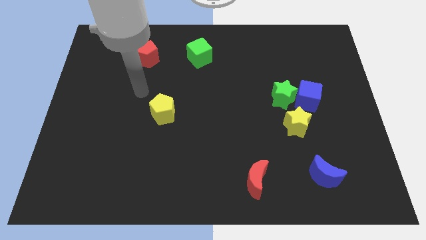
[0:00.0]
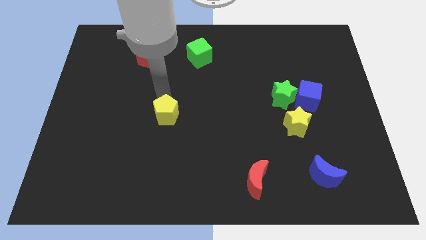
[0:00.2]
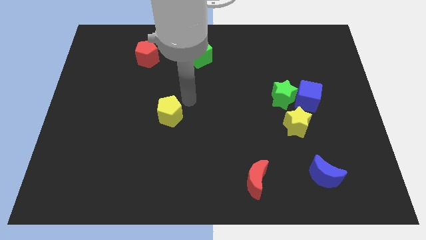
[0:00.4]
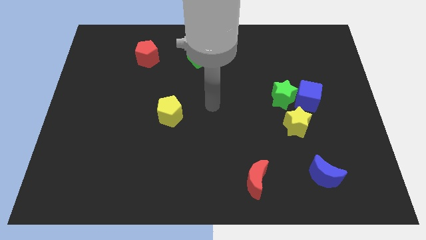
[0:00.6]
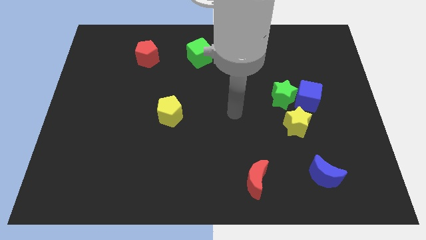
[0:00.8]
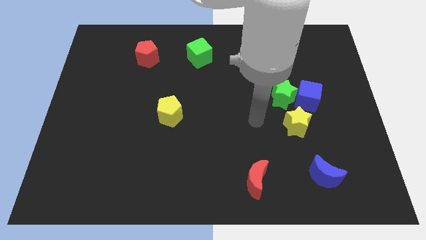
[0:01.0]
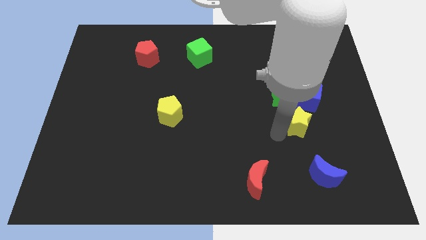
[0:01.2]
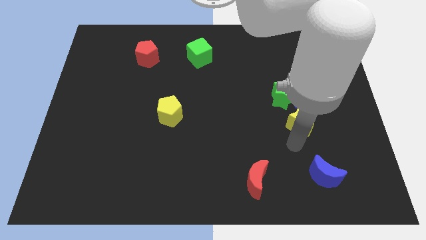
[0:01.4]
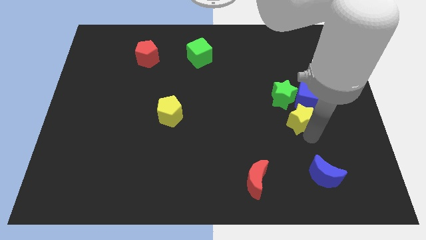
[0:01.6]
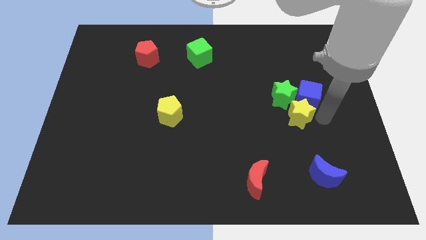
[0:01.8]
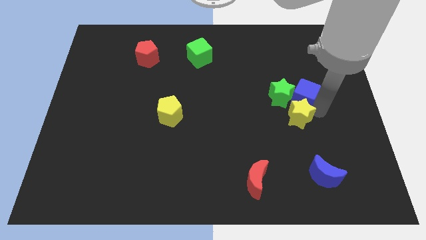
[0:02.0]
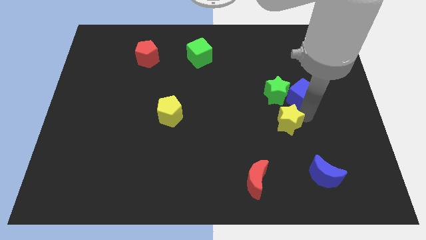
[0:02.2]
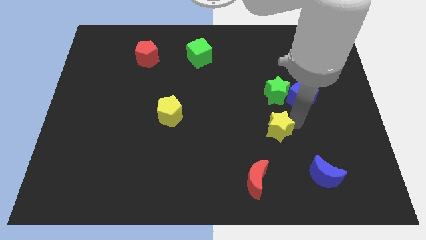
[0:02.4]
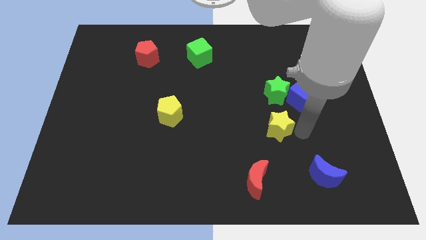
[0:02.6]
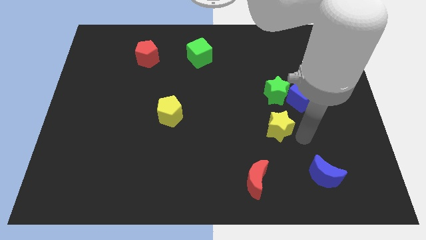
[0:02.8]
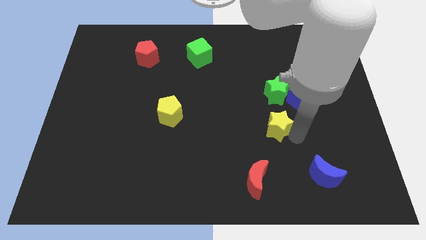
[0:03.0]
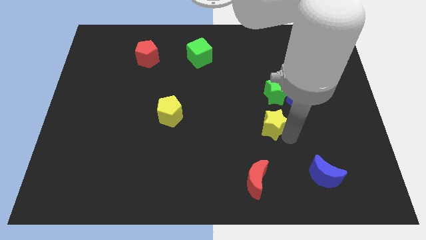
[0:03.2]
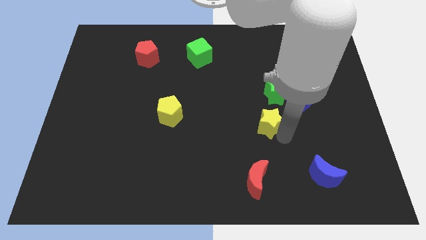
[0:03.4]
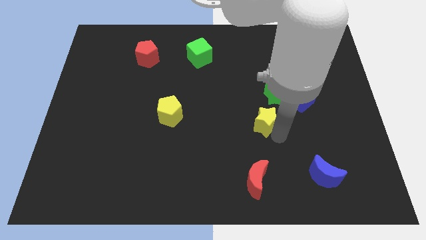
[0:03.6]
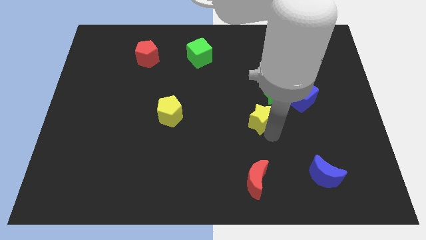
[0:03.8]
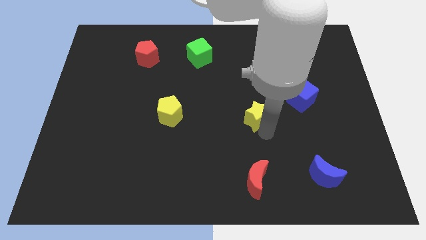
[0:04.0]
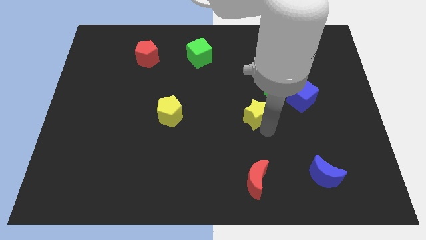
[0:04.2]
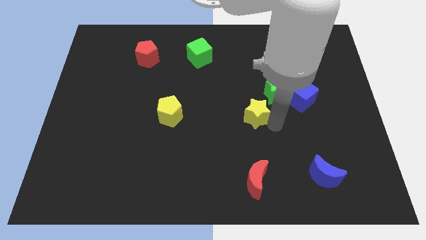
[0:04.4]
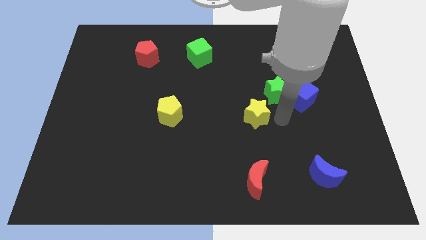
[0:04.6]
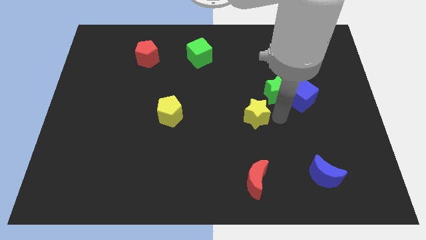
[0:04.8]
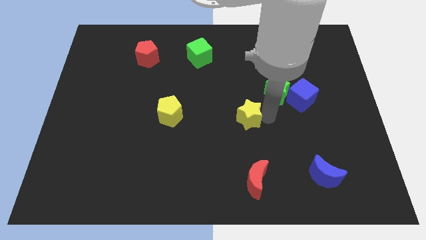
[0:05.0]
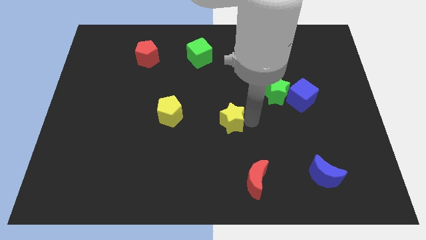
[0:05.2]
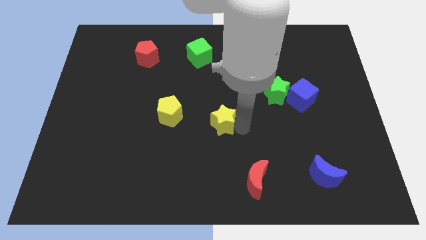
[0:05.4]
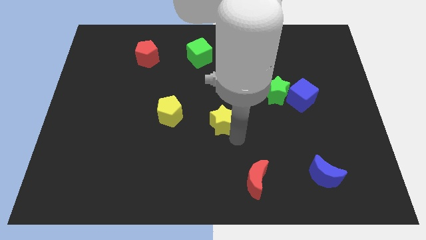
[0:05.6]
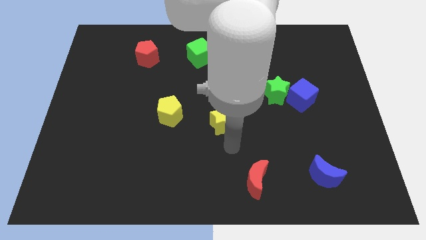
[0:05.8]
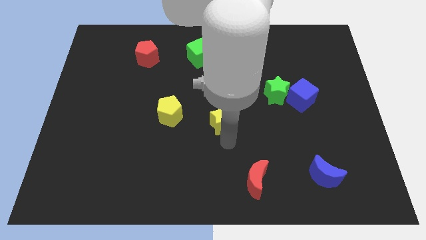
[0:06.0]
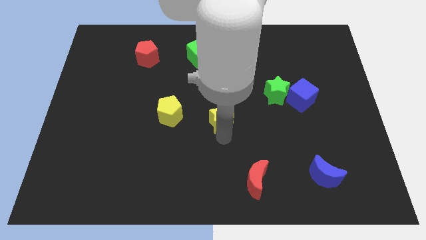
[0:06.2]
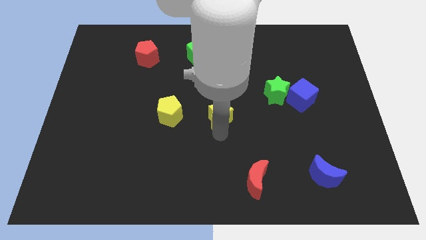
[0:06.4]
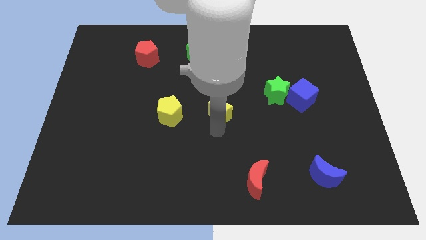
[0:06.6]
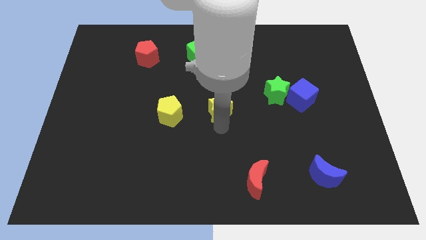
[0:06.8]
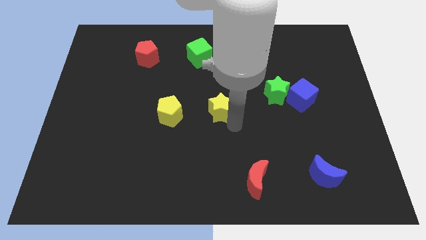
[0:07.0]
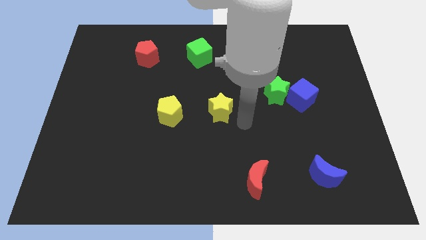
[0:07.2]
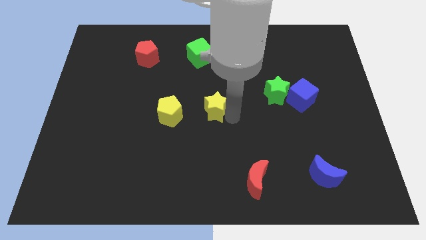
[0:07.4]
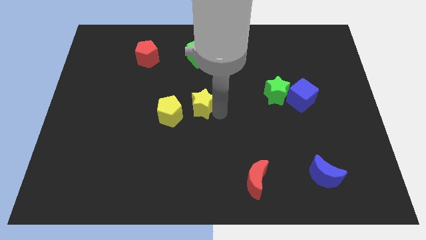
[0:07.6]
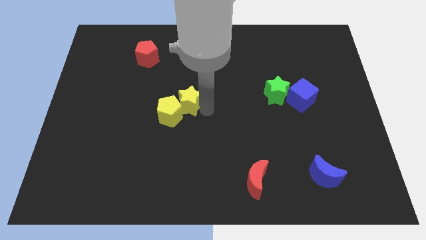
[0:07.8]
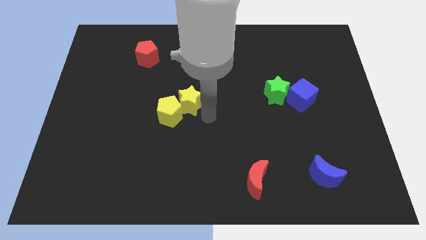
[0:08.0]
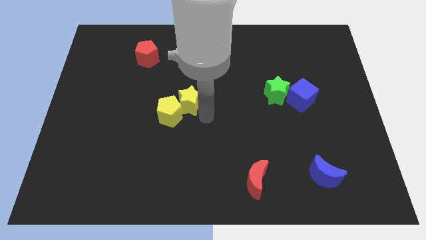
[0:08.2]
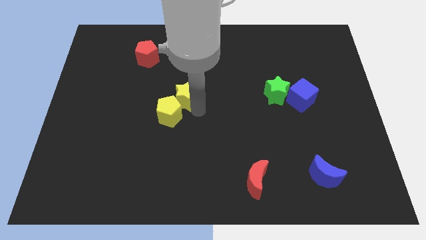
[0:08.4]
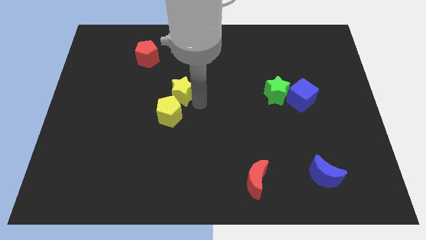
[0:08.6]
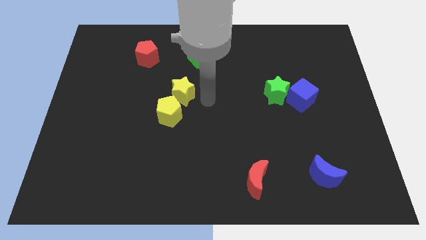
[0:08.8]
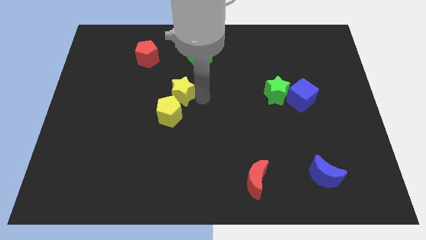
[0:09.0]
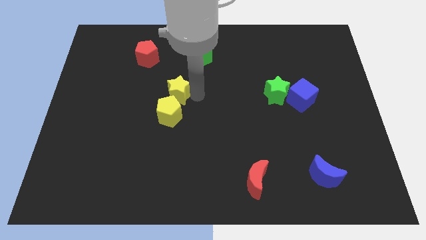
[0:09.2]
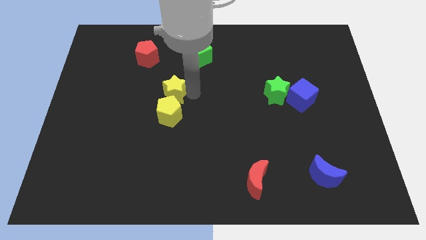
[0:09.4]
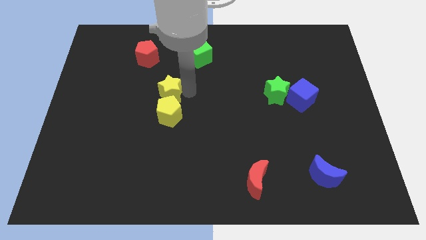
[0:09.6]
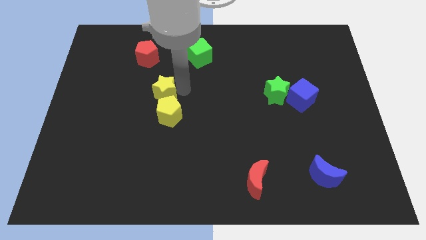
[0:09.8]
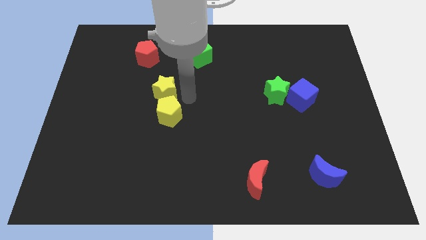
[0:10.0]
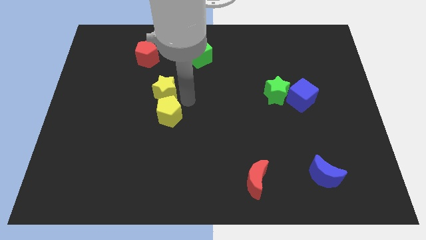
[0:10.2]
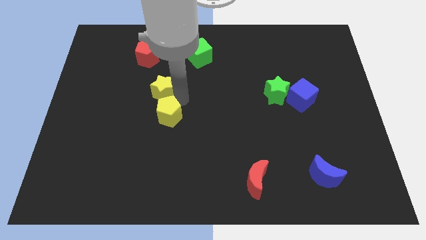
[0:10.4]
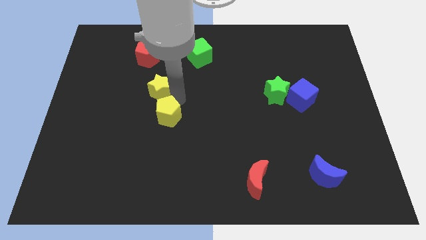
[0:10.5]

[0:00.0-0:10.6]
push the yellow star to the bottom of the red pentagon

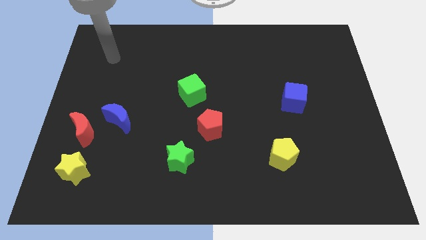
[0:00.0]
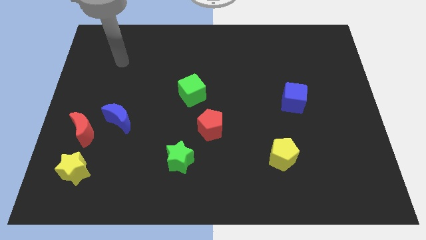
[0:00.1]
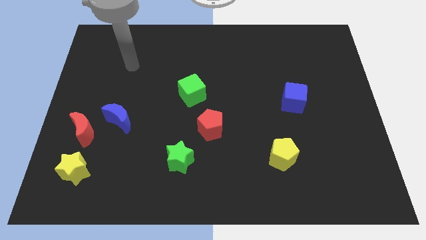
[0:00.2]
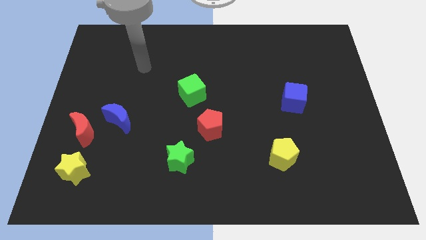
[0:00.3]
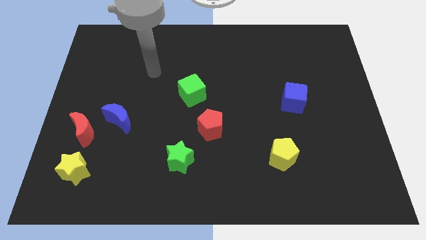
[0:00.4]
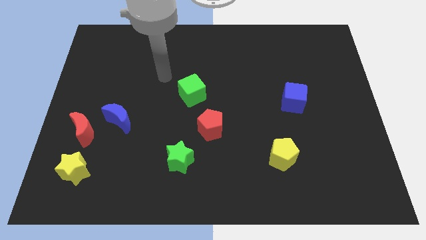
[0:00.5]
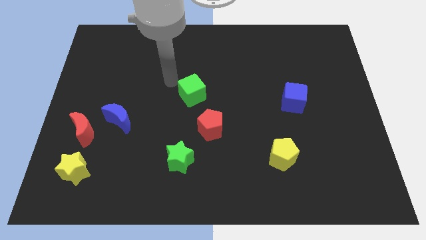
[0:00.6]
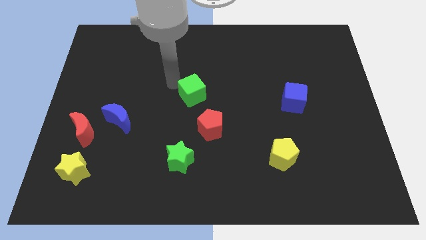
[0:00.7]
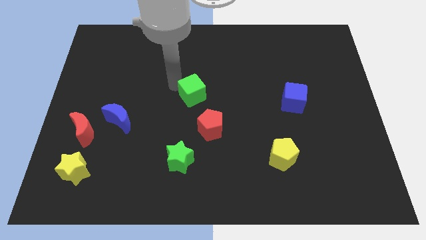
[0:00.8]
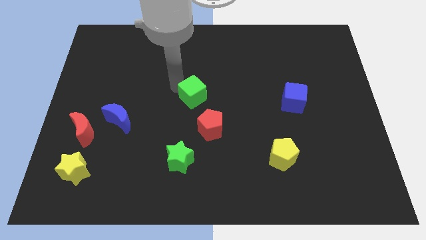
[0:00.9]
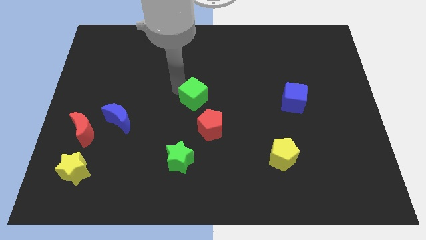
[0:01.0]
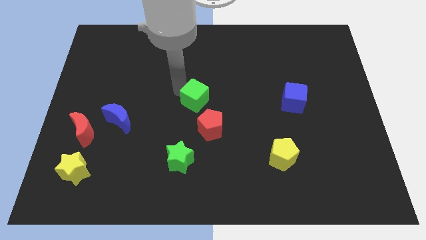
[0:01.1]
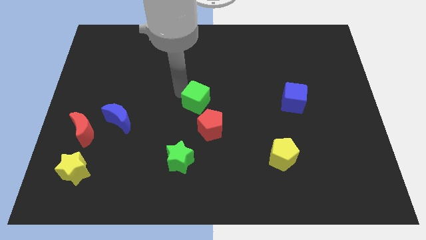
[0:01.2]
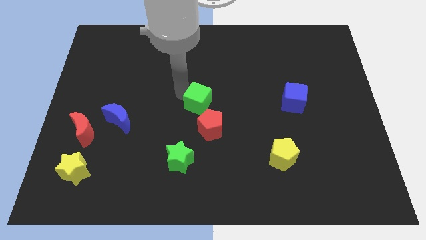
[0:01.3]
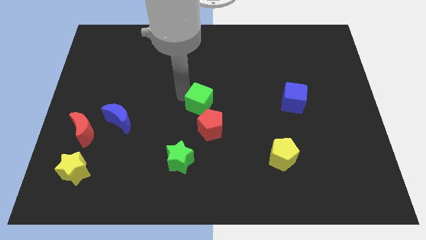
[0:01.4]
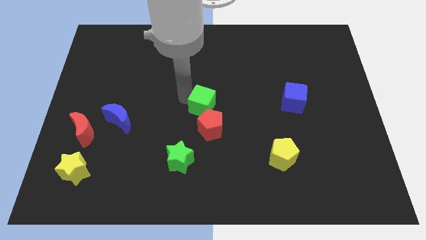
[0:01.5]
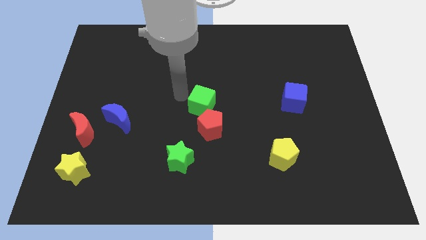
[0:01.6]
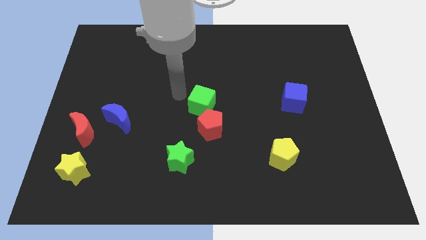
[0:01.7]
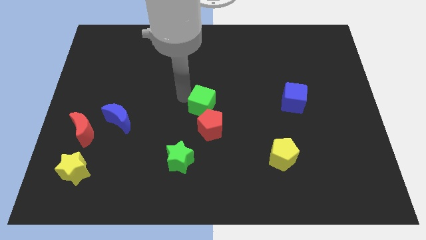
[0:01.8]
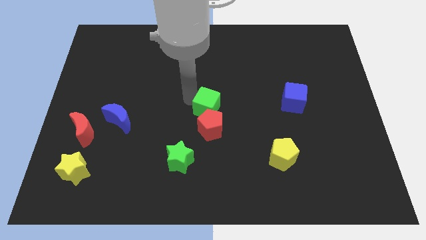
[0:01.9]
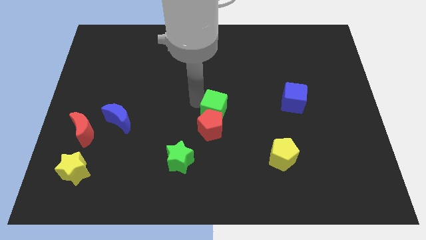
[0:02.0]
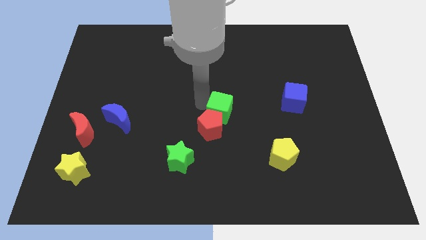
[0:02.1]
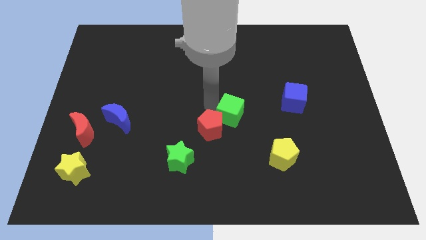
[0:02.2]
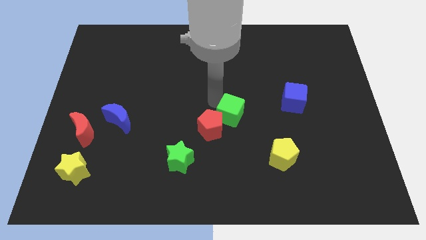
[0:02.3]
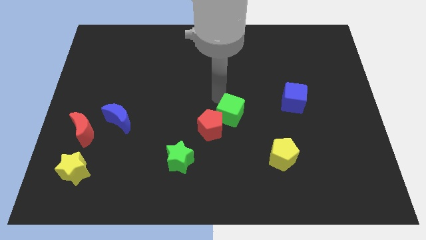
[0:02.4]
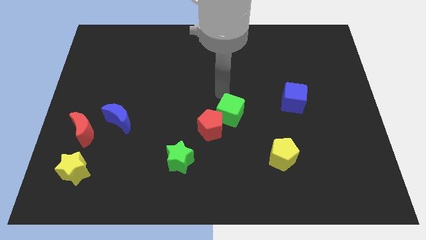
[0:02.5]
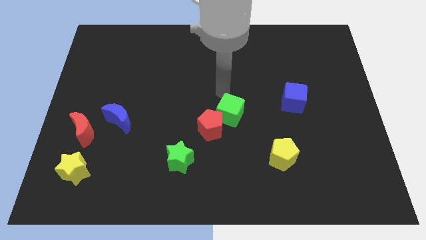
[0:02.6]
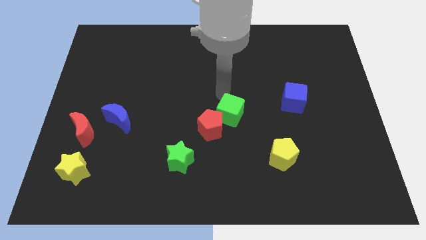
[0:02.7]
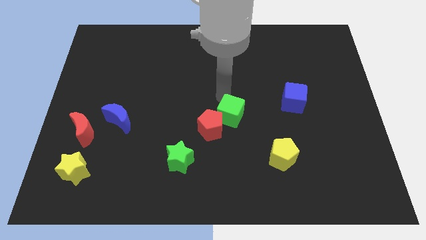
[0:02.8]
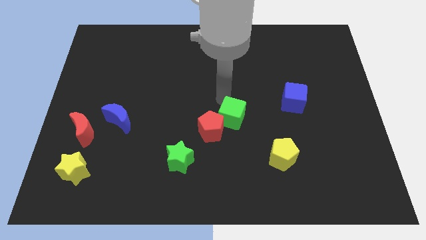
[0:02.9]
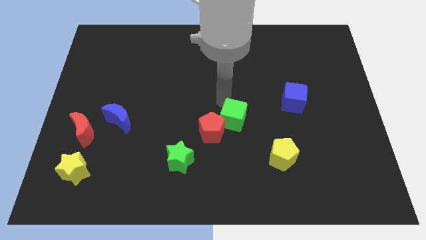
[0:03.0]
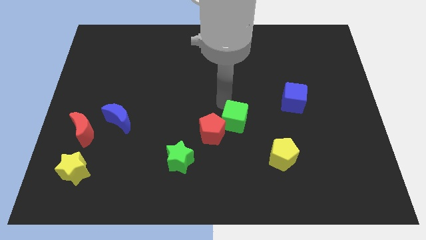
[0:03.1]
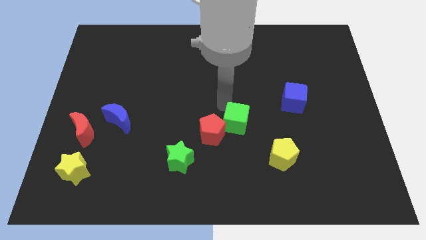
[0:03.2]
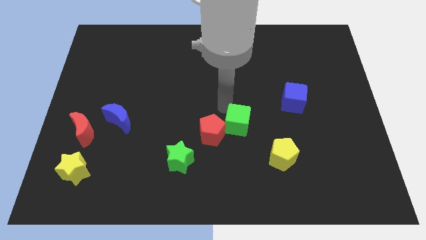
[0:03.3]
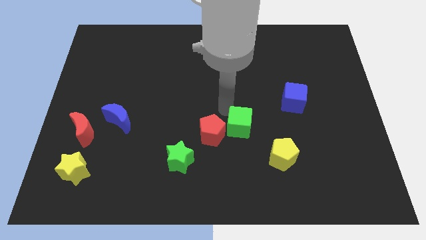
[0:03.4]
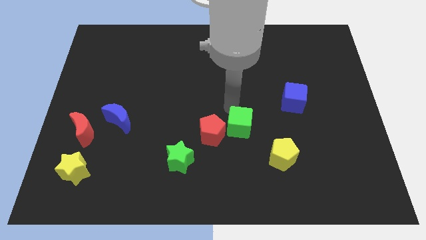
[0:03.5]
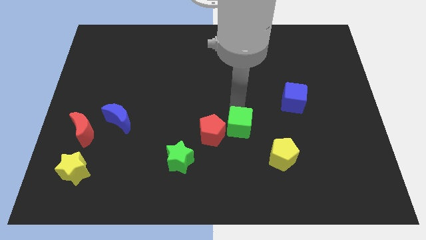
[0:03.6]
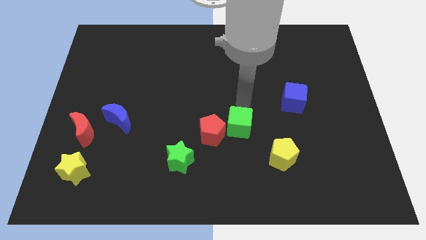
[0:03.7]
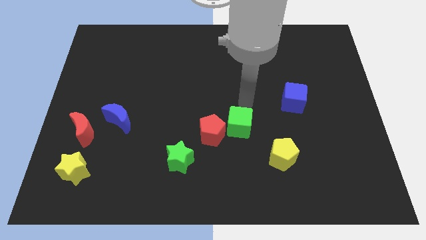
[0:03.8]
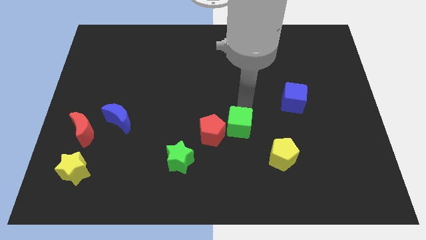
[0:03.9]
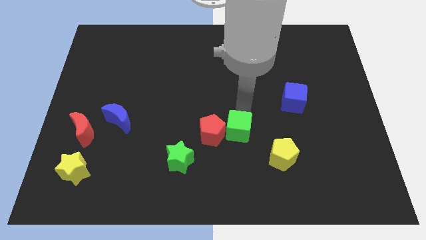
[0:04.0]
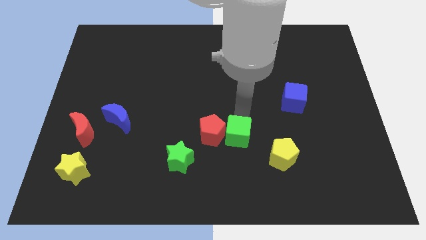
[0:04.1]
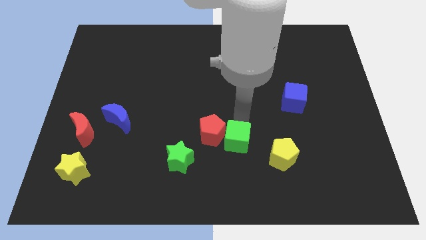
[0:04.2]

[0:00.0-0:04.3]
push the green cube to the right of the green star
